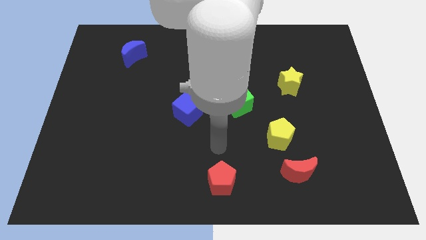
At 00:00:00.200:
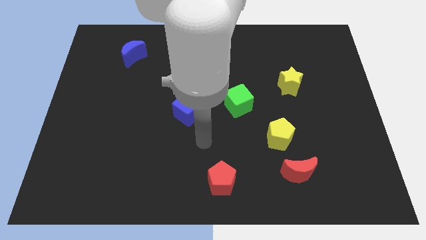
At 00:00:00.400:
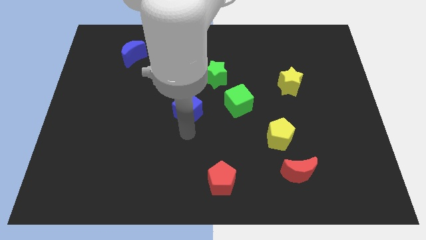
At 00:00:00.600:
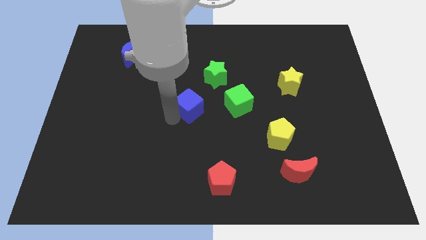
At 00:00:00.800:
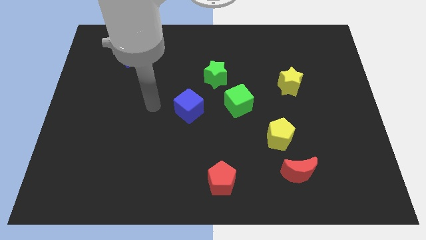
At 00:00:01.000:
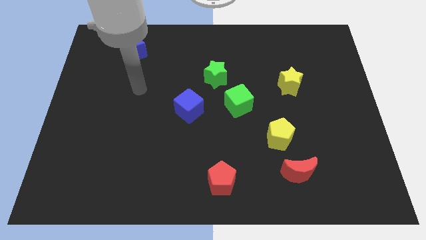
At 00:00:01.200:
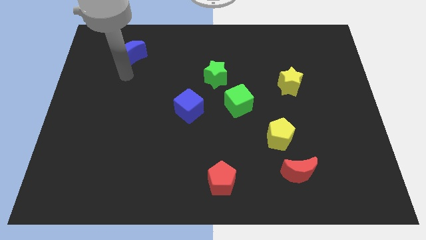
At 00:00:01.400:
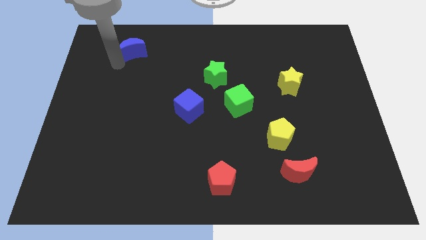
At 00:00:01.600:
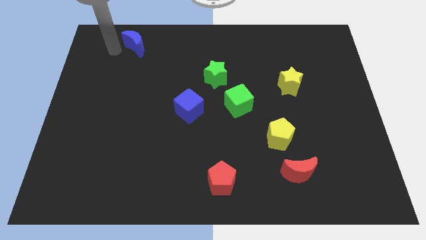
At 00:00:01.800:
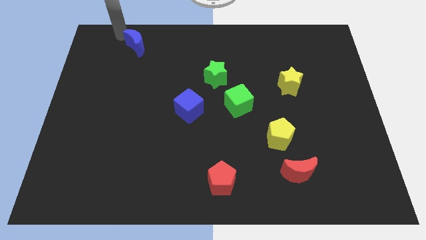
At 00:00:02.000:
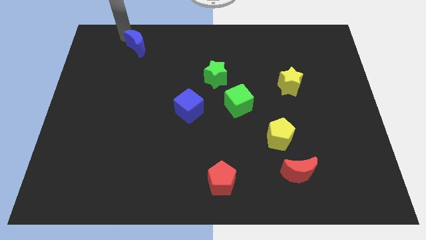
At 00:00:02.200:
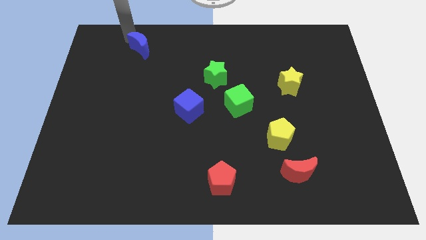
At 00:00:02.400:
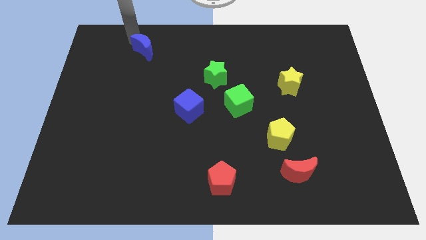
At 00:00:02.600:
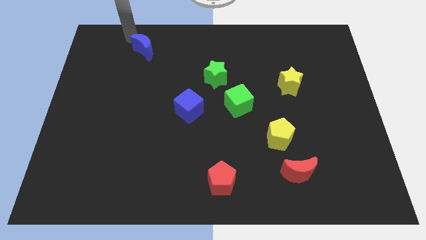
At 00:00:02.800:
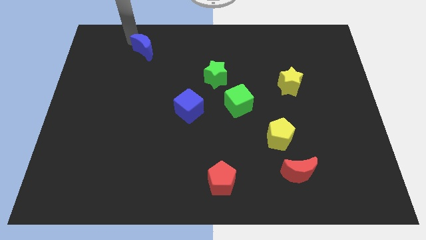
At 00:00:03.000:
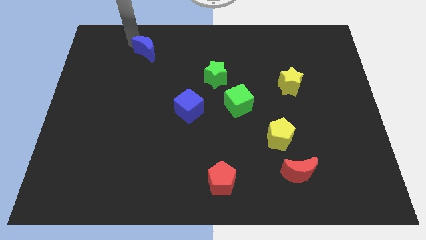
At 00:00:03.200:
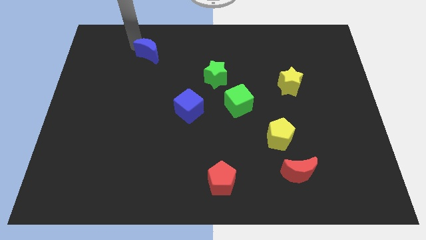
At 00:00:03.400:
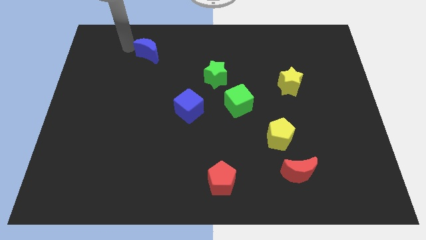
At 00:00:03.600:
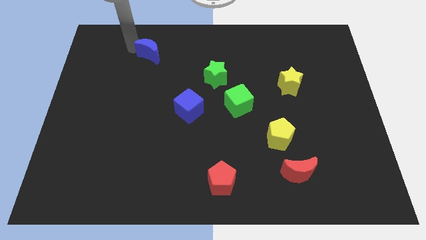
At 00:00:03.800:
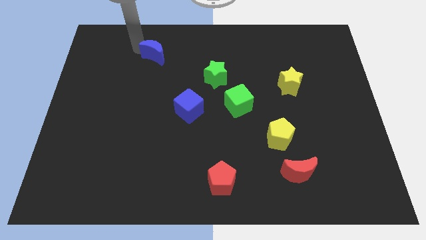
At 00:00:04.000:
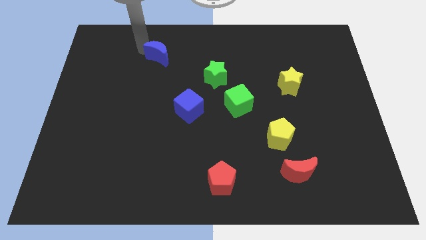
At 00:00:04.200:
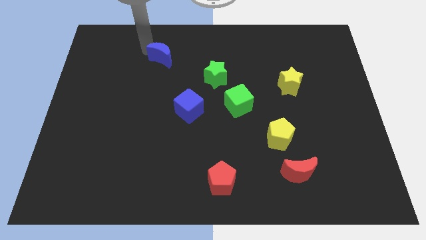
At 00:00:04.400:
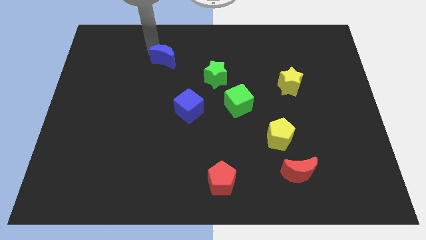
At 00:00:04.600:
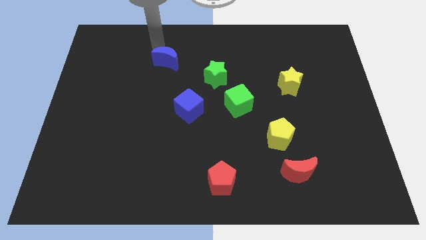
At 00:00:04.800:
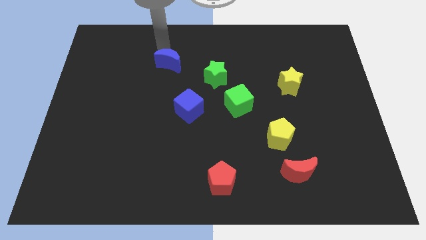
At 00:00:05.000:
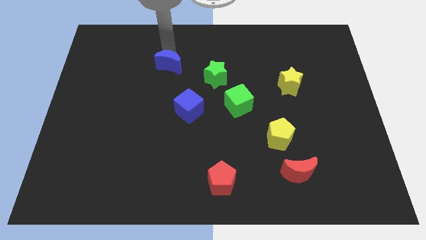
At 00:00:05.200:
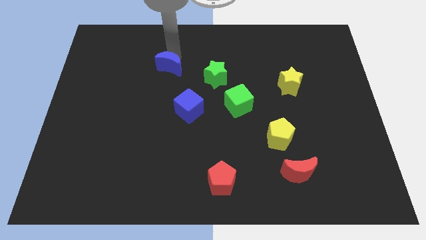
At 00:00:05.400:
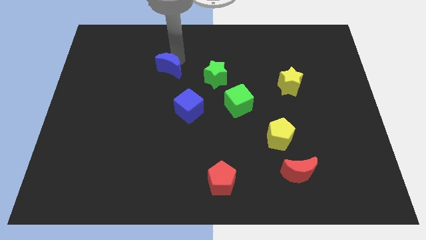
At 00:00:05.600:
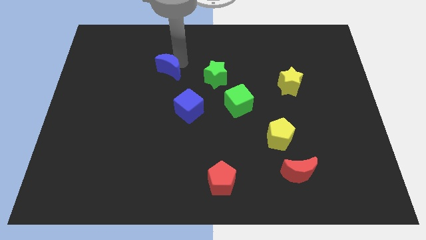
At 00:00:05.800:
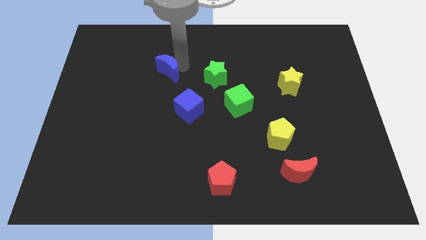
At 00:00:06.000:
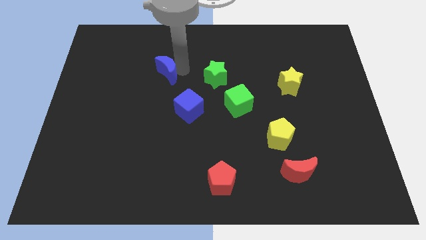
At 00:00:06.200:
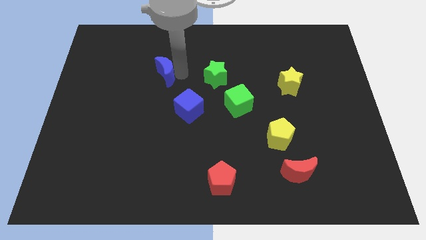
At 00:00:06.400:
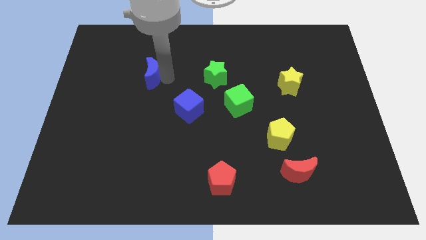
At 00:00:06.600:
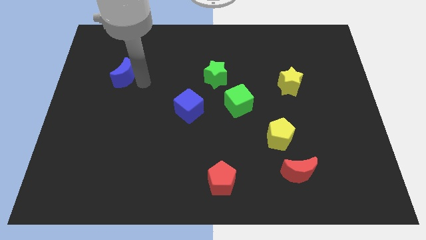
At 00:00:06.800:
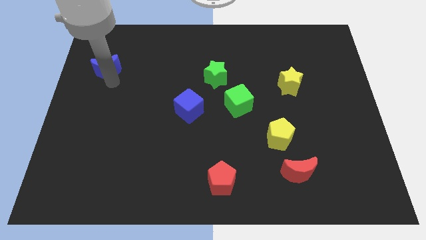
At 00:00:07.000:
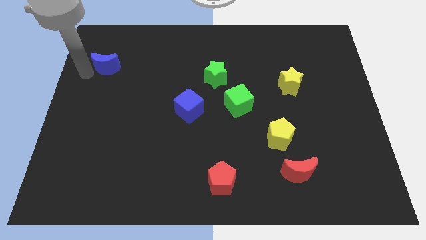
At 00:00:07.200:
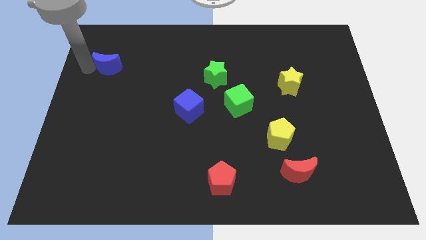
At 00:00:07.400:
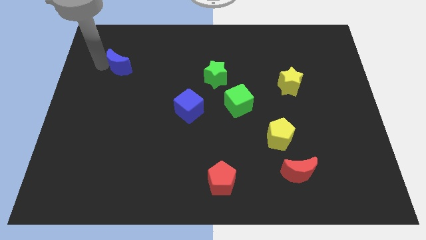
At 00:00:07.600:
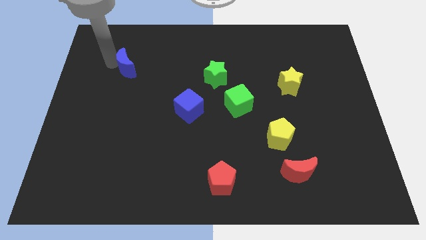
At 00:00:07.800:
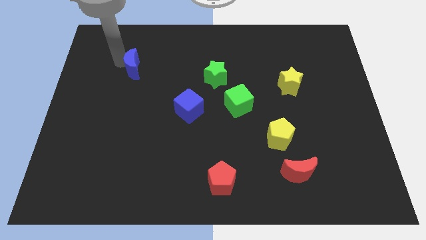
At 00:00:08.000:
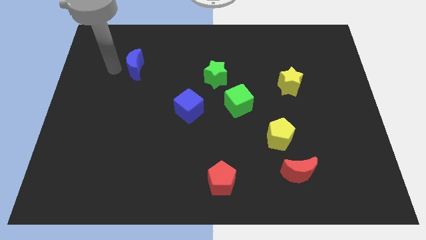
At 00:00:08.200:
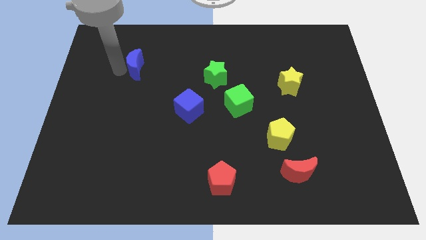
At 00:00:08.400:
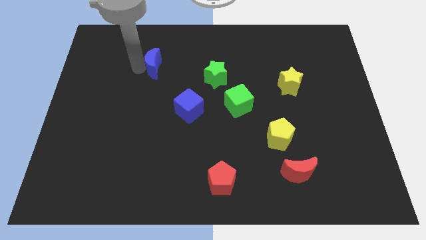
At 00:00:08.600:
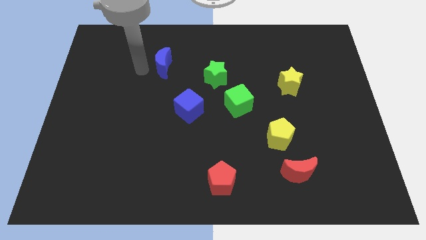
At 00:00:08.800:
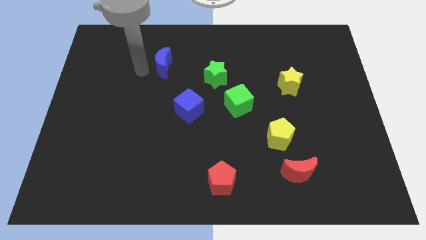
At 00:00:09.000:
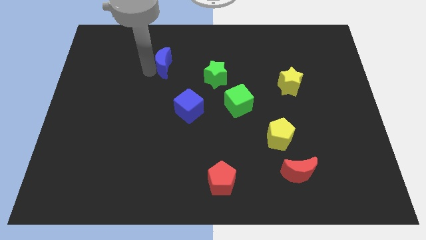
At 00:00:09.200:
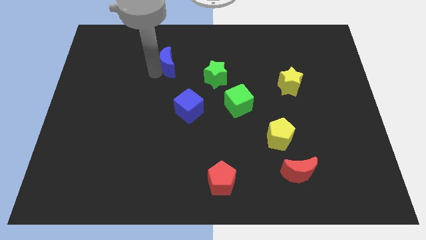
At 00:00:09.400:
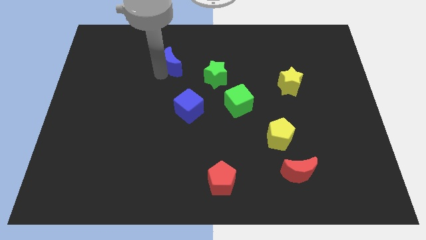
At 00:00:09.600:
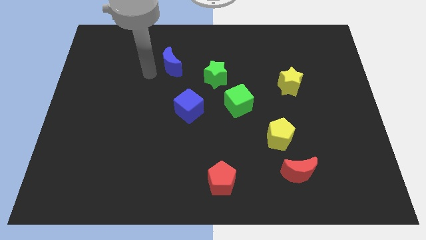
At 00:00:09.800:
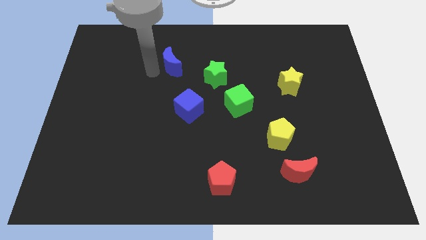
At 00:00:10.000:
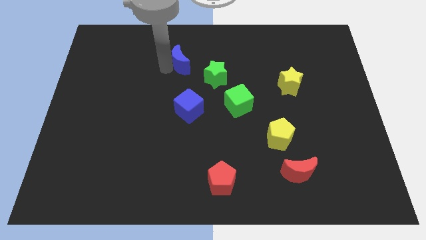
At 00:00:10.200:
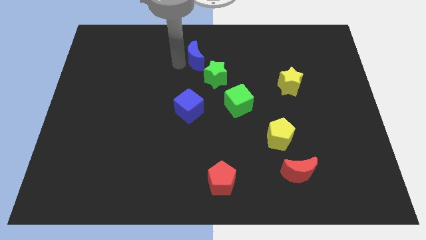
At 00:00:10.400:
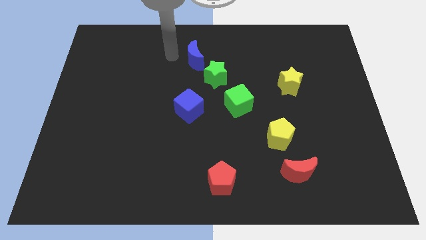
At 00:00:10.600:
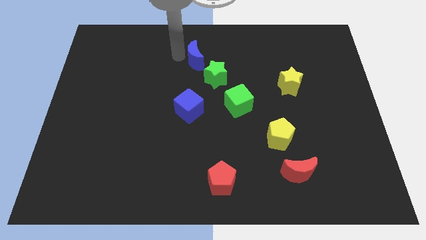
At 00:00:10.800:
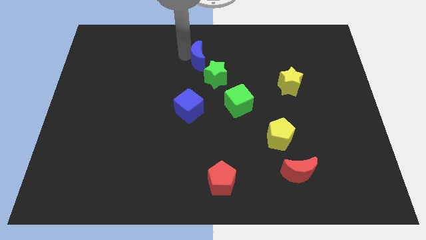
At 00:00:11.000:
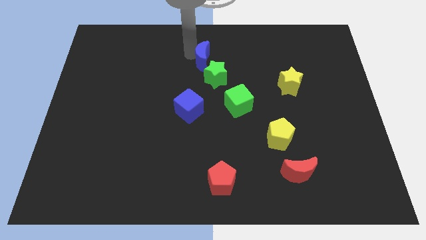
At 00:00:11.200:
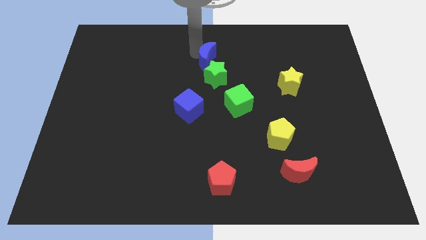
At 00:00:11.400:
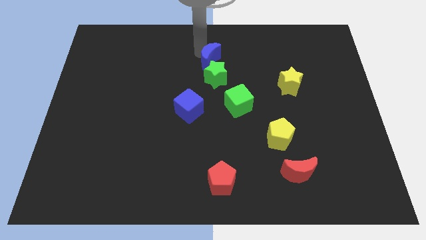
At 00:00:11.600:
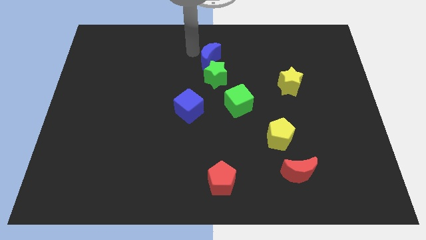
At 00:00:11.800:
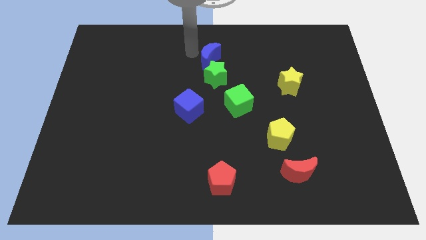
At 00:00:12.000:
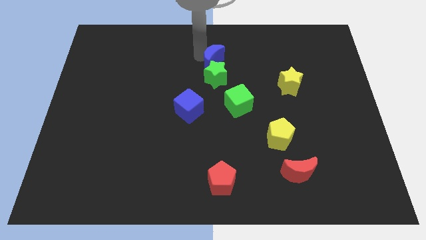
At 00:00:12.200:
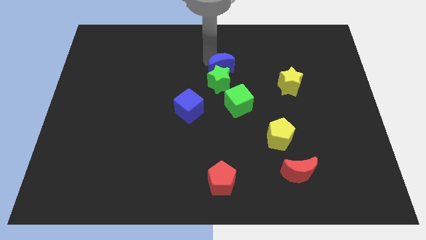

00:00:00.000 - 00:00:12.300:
slide the blue moon to the top side of the green cube

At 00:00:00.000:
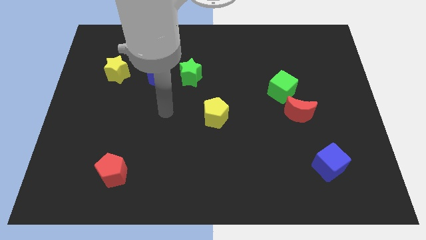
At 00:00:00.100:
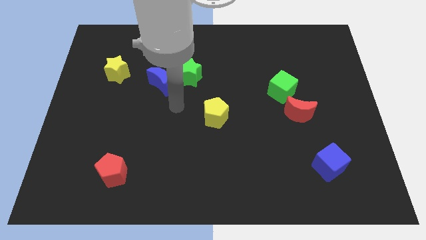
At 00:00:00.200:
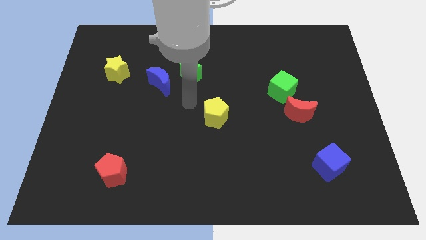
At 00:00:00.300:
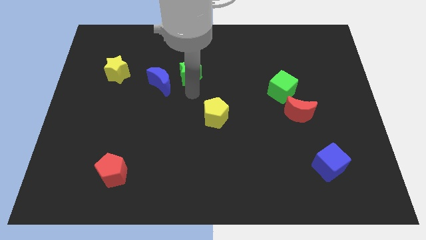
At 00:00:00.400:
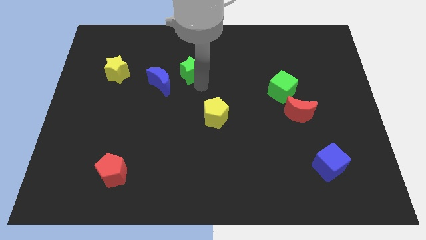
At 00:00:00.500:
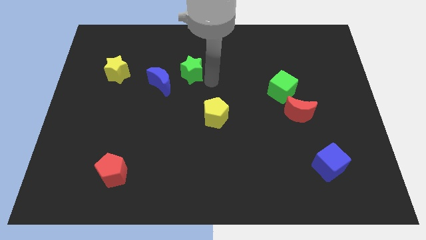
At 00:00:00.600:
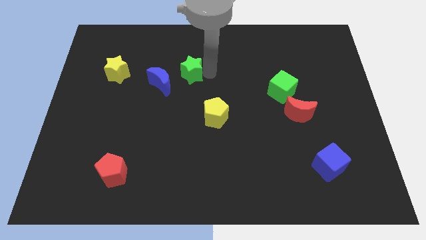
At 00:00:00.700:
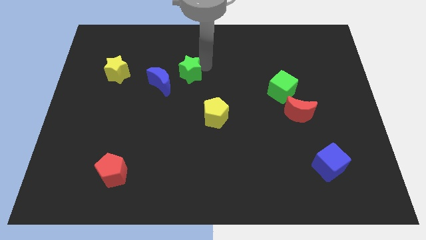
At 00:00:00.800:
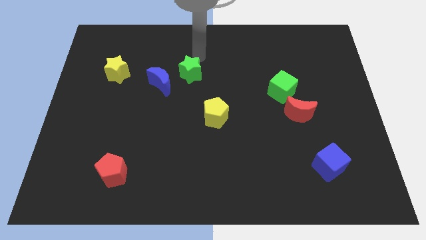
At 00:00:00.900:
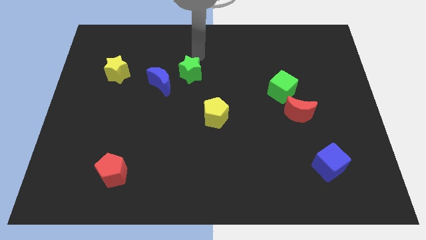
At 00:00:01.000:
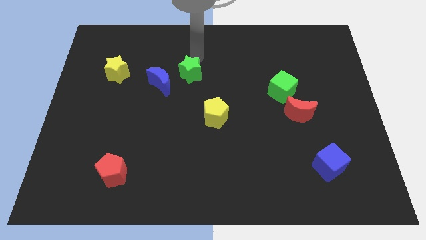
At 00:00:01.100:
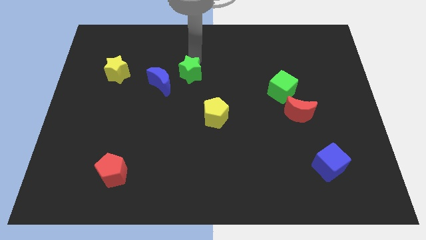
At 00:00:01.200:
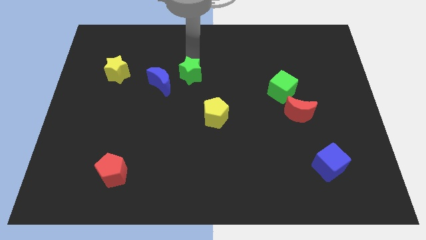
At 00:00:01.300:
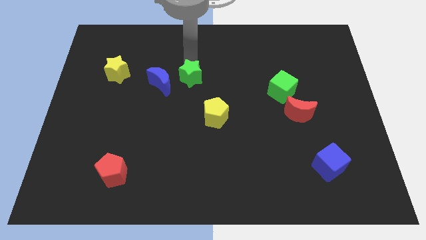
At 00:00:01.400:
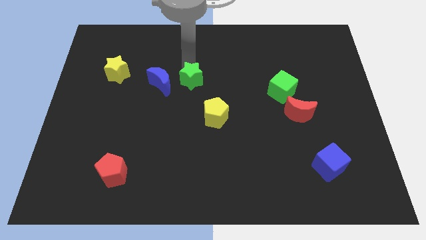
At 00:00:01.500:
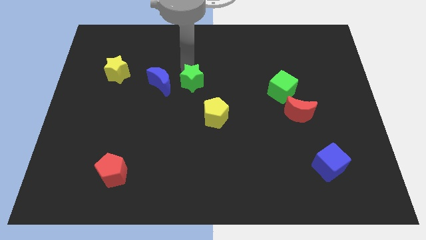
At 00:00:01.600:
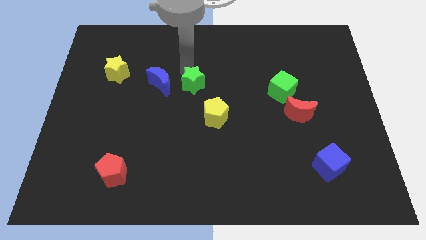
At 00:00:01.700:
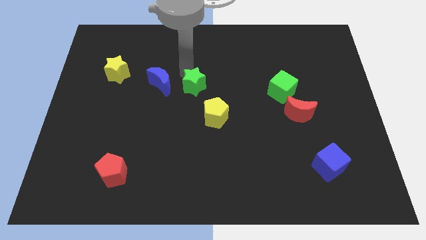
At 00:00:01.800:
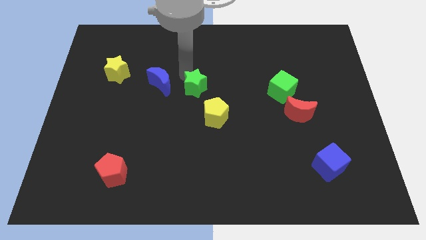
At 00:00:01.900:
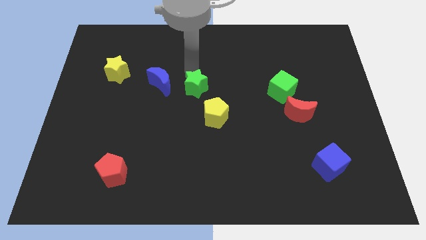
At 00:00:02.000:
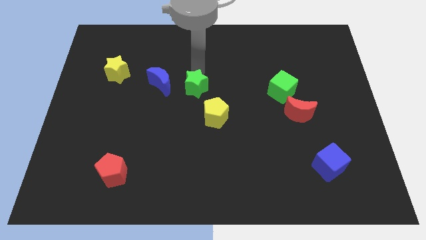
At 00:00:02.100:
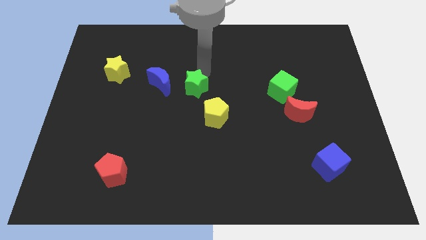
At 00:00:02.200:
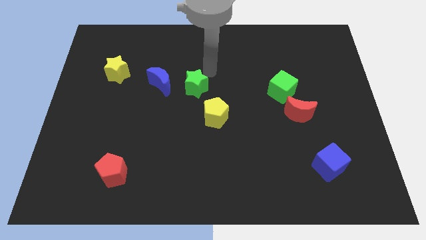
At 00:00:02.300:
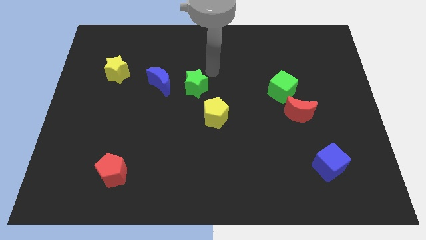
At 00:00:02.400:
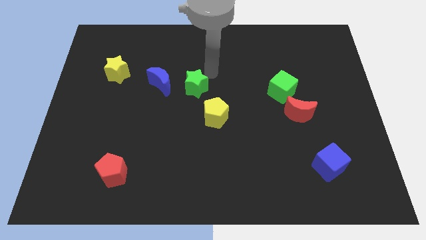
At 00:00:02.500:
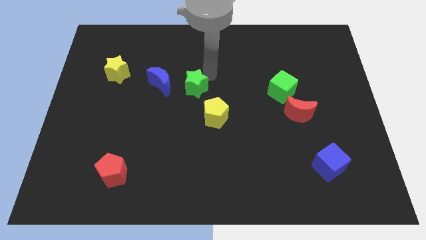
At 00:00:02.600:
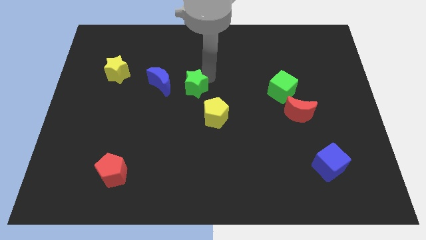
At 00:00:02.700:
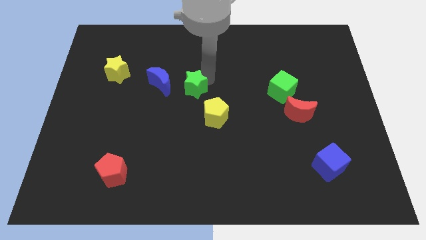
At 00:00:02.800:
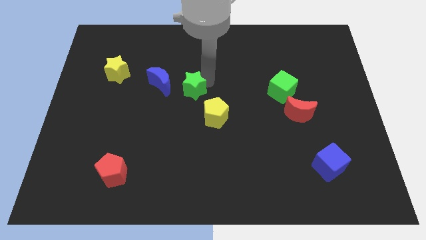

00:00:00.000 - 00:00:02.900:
push the green star to the bottom right side of the blue moon
